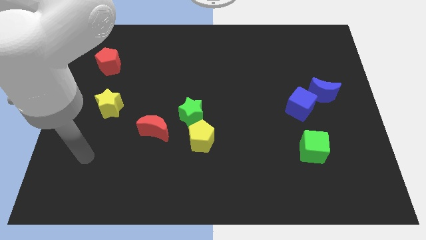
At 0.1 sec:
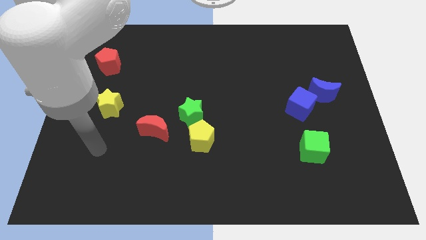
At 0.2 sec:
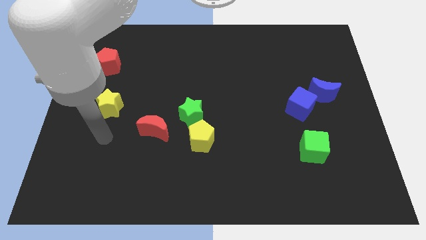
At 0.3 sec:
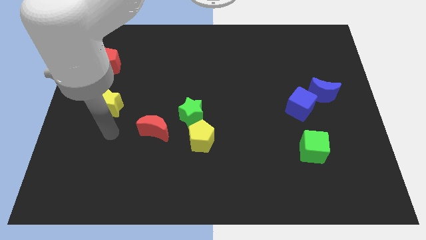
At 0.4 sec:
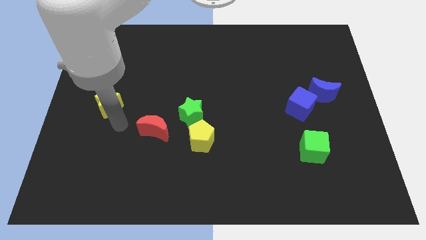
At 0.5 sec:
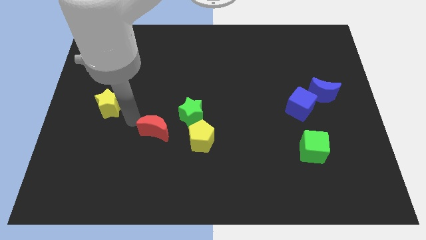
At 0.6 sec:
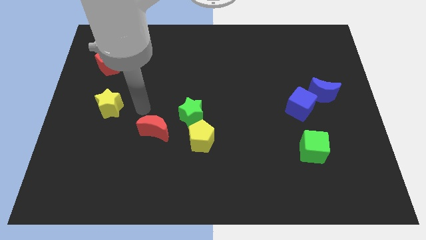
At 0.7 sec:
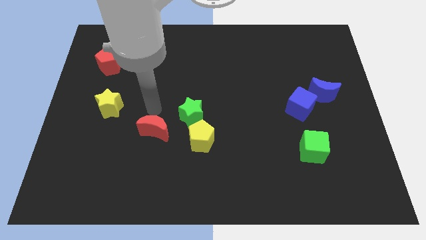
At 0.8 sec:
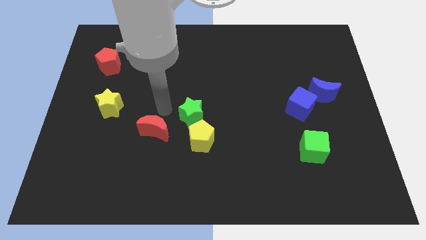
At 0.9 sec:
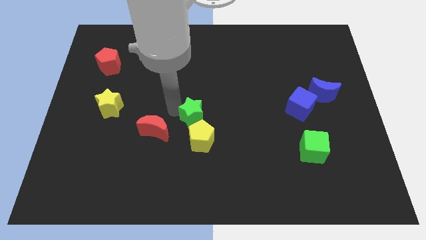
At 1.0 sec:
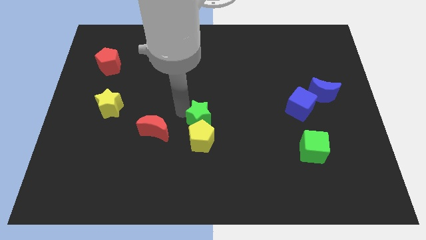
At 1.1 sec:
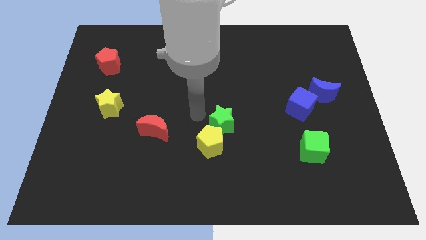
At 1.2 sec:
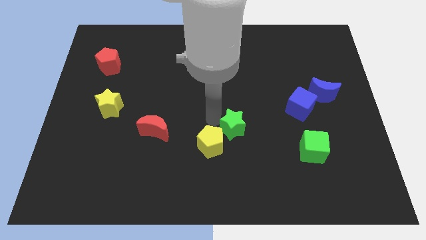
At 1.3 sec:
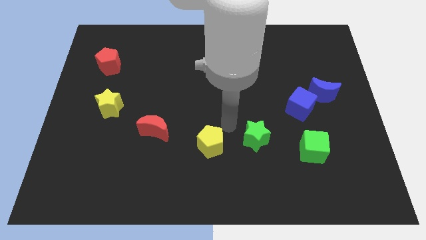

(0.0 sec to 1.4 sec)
pull the yellow pentagon apart from the green star

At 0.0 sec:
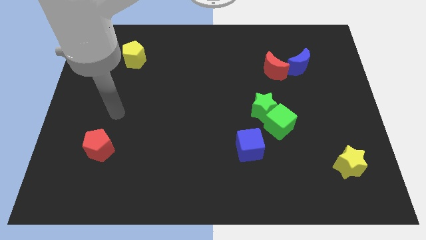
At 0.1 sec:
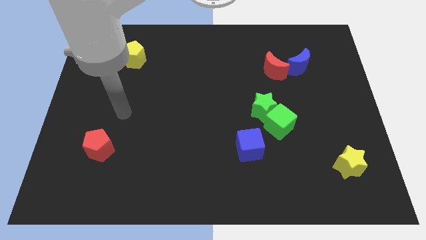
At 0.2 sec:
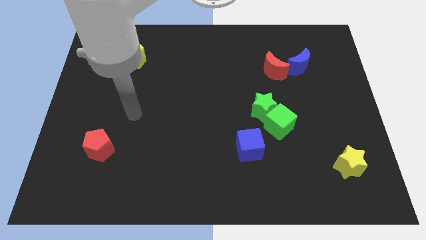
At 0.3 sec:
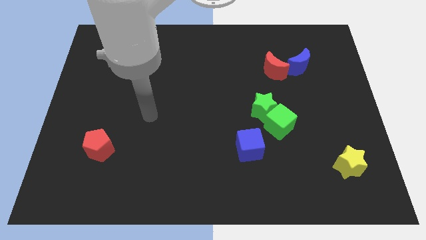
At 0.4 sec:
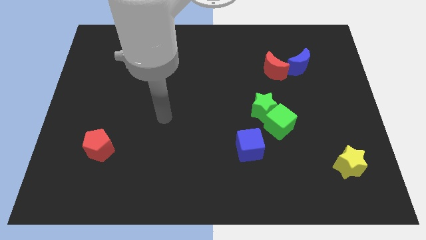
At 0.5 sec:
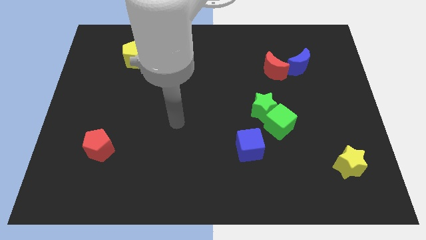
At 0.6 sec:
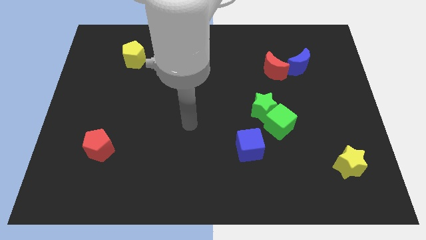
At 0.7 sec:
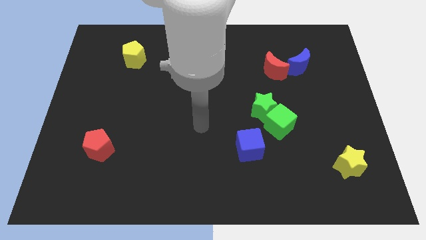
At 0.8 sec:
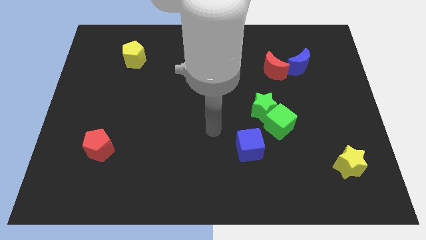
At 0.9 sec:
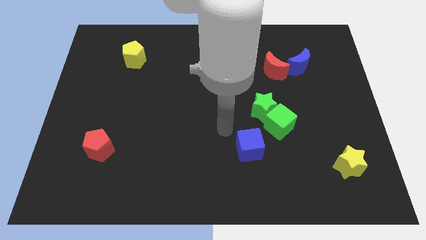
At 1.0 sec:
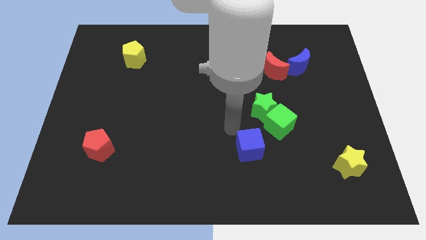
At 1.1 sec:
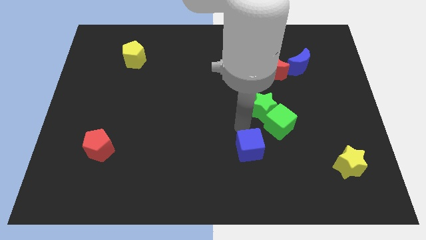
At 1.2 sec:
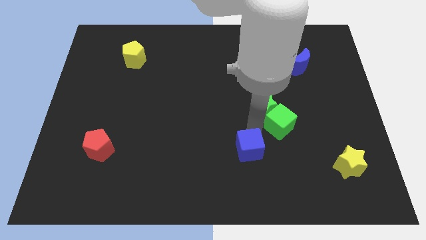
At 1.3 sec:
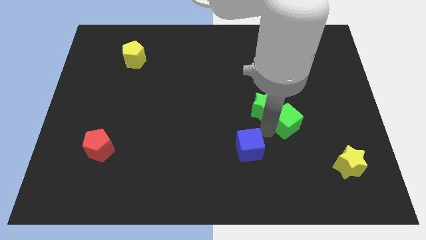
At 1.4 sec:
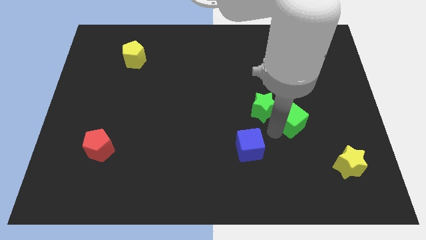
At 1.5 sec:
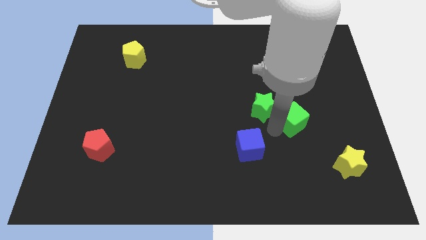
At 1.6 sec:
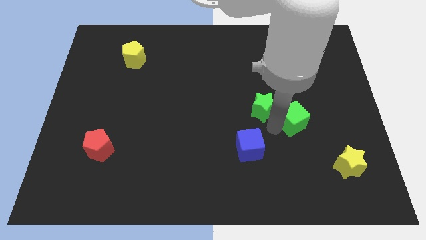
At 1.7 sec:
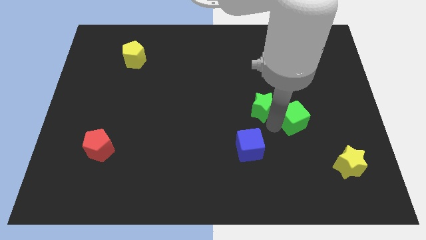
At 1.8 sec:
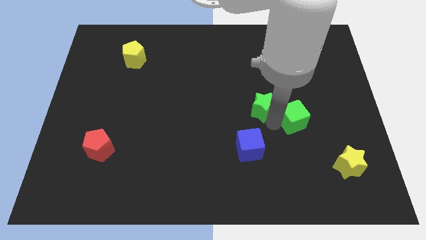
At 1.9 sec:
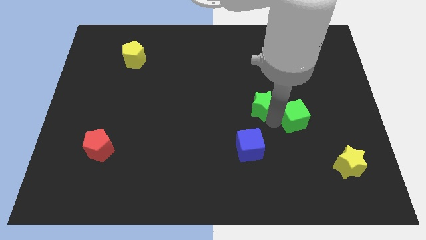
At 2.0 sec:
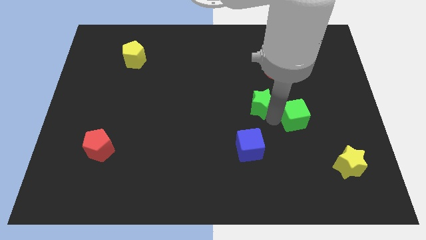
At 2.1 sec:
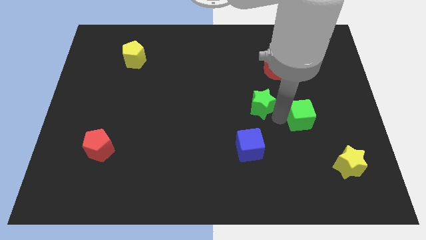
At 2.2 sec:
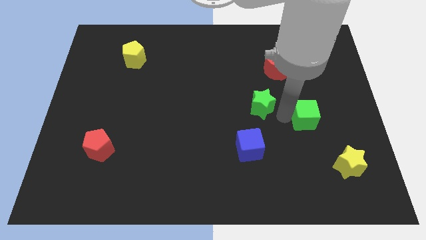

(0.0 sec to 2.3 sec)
move the green star away from the green cube

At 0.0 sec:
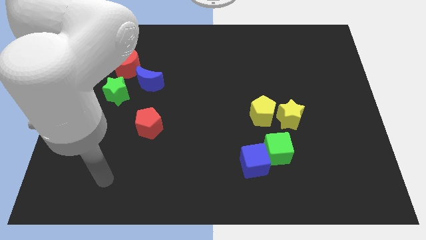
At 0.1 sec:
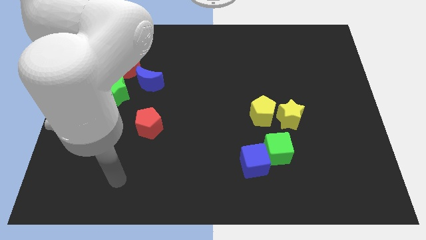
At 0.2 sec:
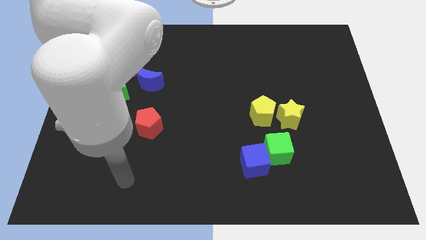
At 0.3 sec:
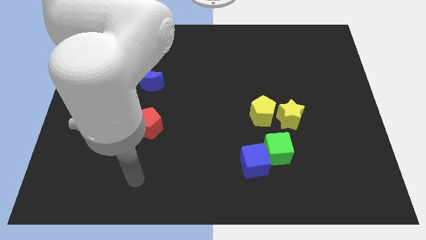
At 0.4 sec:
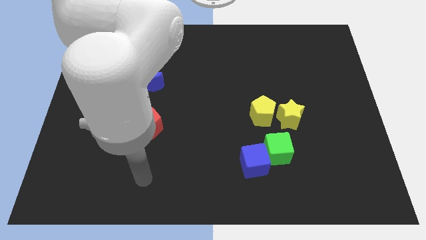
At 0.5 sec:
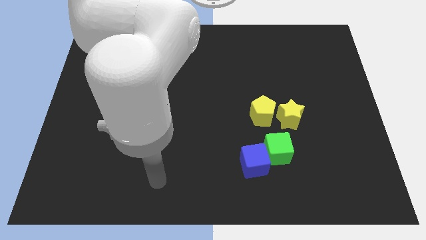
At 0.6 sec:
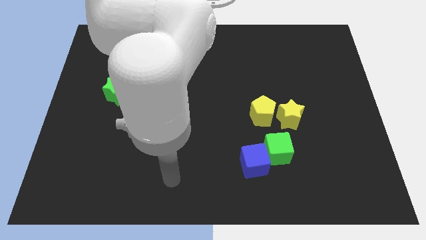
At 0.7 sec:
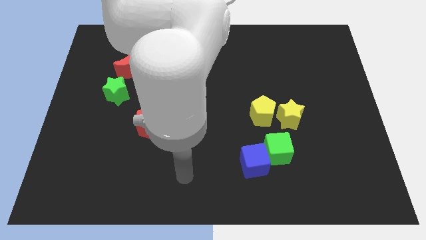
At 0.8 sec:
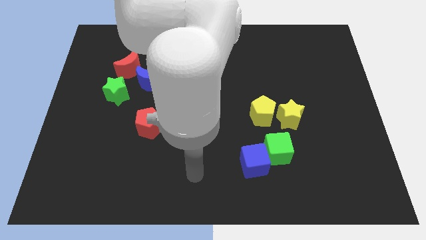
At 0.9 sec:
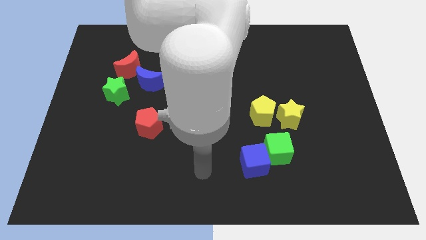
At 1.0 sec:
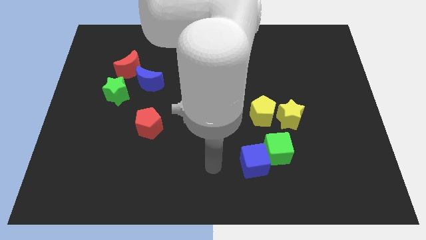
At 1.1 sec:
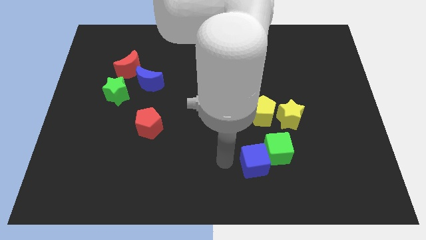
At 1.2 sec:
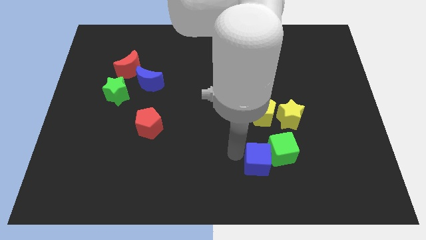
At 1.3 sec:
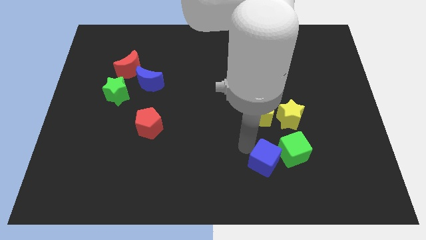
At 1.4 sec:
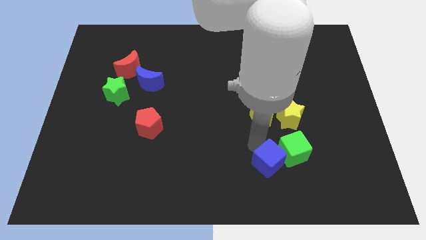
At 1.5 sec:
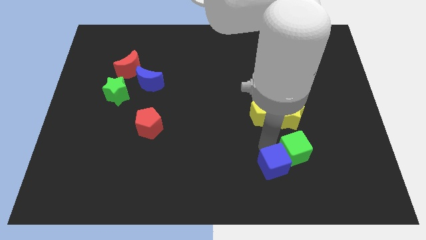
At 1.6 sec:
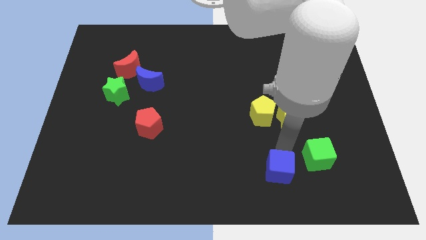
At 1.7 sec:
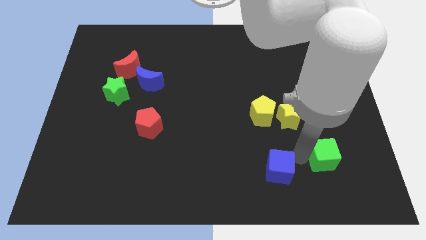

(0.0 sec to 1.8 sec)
separate the blue cube from the green cube

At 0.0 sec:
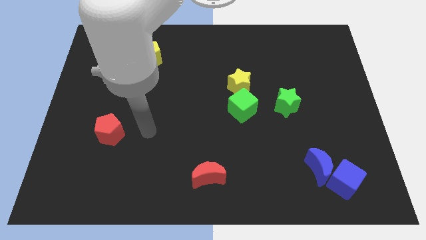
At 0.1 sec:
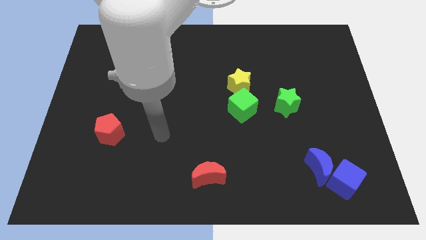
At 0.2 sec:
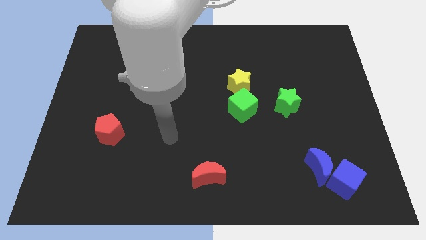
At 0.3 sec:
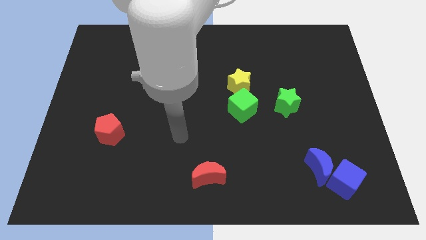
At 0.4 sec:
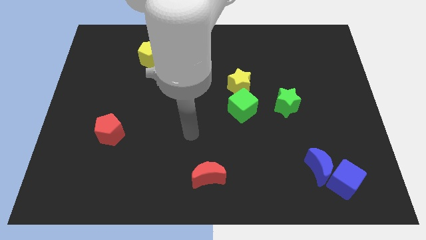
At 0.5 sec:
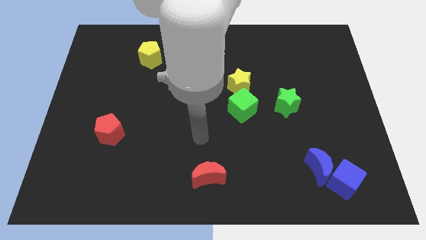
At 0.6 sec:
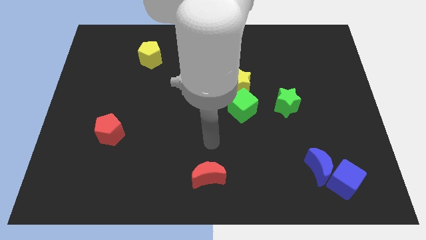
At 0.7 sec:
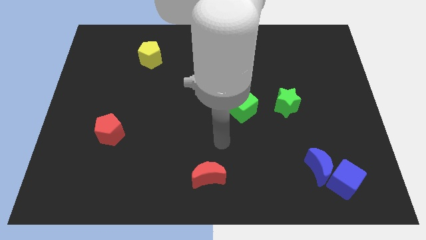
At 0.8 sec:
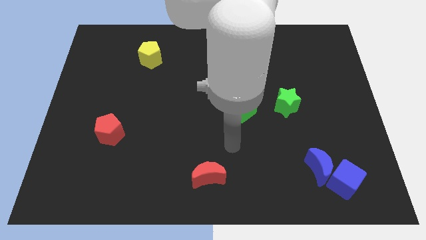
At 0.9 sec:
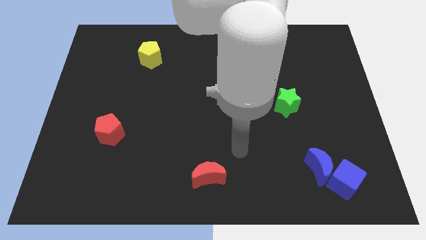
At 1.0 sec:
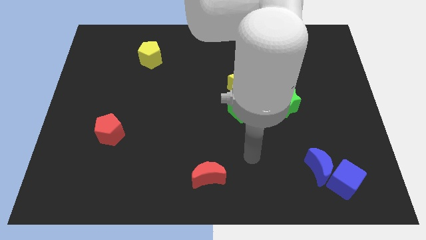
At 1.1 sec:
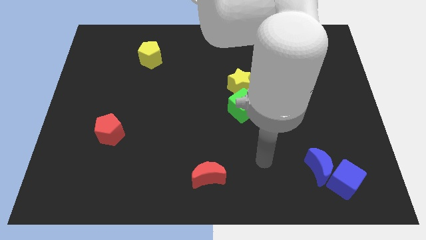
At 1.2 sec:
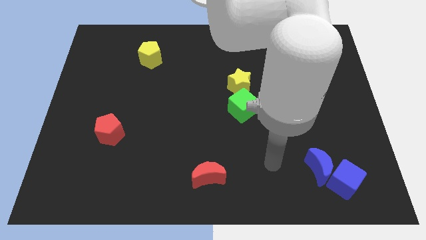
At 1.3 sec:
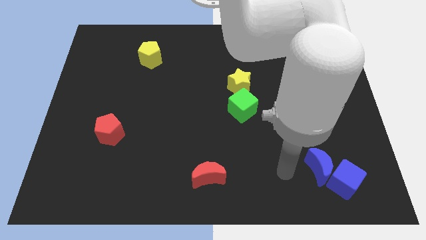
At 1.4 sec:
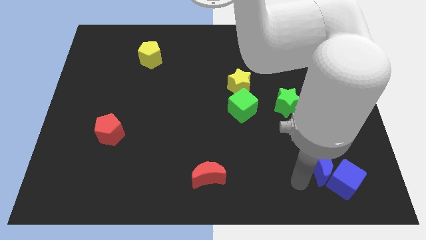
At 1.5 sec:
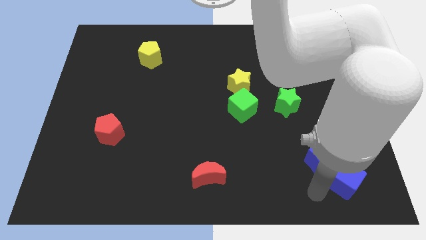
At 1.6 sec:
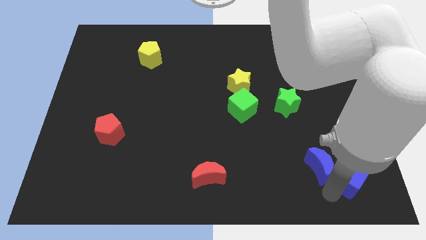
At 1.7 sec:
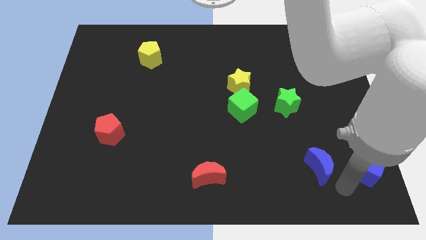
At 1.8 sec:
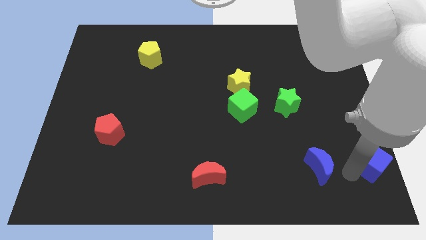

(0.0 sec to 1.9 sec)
separate the blue moon from the blue cube

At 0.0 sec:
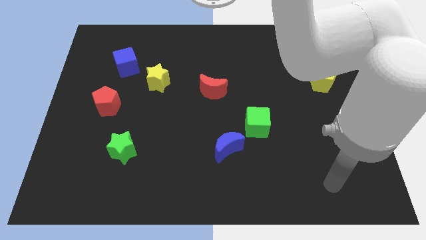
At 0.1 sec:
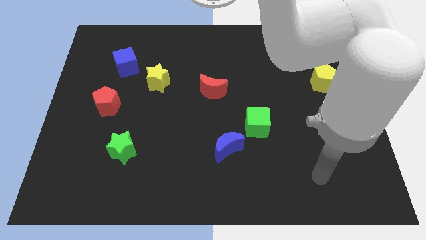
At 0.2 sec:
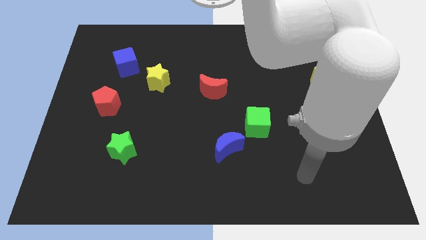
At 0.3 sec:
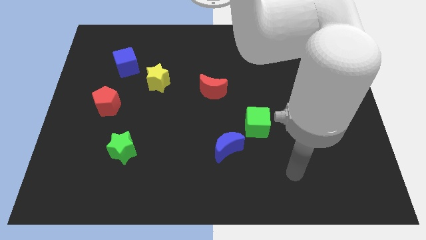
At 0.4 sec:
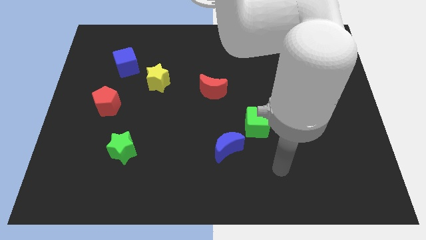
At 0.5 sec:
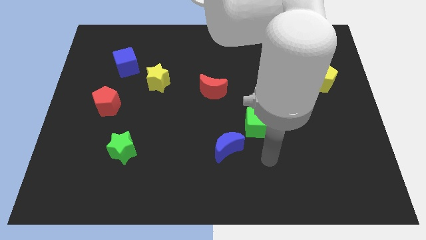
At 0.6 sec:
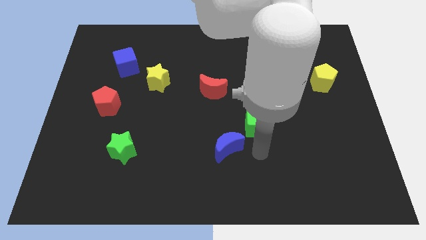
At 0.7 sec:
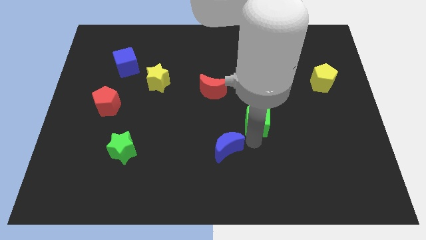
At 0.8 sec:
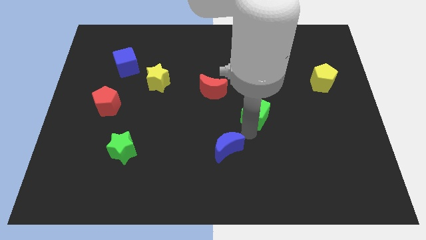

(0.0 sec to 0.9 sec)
move the blue moon away from the green cube

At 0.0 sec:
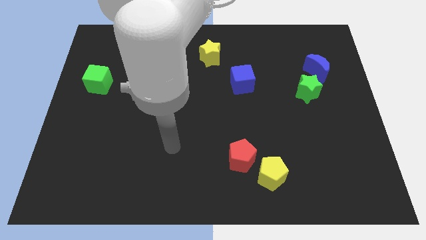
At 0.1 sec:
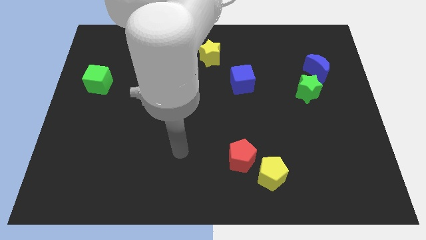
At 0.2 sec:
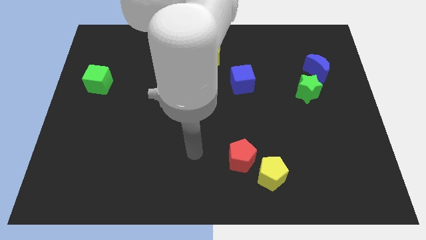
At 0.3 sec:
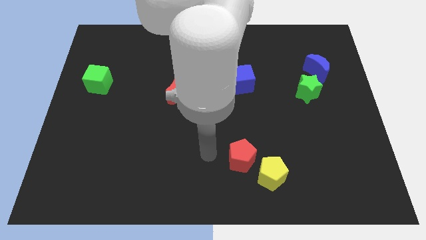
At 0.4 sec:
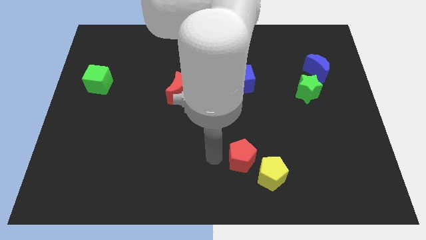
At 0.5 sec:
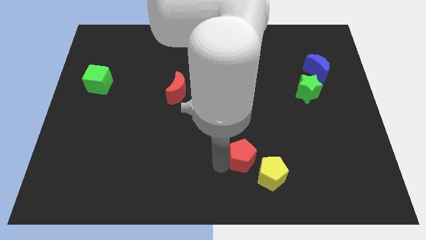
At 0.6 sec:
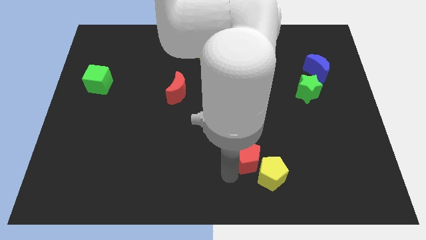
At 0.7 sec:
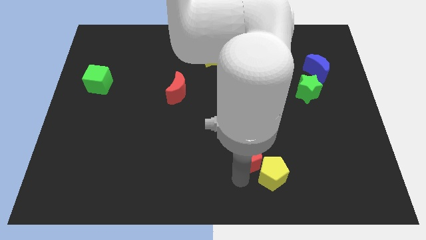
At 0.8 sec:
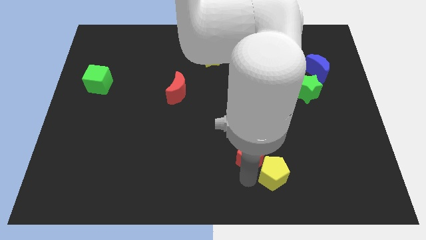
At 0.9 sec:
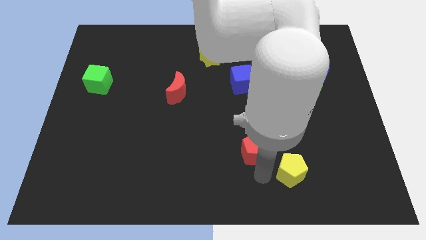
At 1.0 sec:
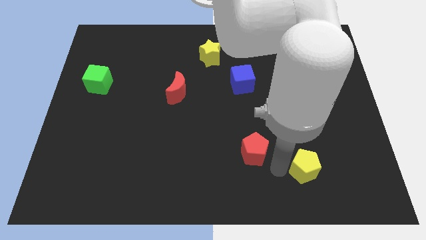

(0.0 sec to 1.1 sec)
move the red pentagon away from the yellow pentagon
